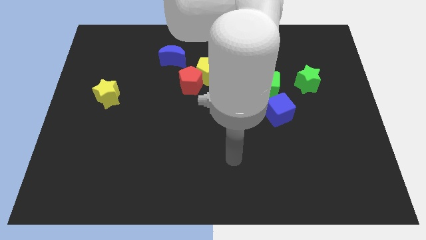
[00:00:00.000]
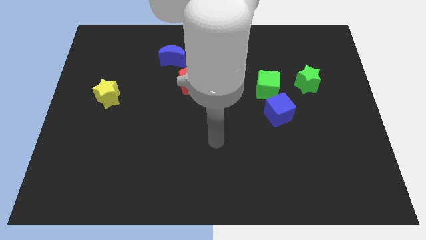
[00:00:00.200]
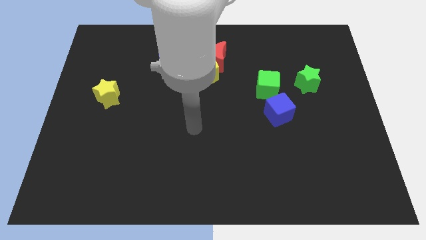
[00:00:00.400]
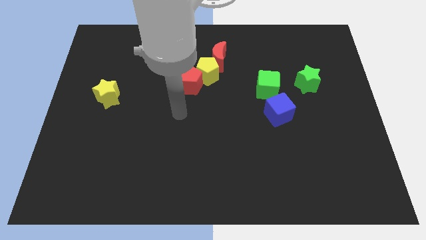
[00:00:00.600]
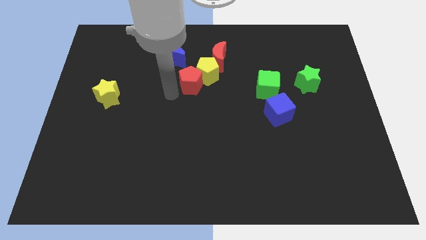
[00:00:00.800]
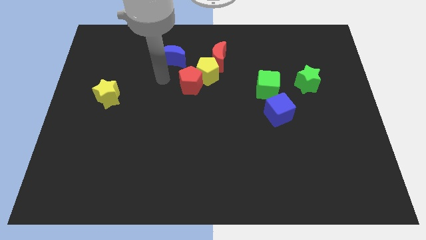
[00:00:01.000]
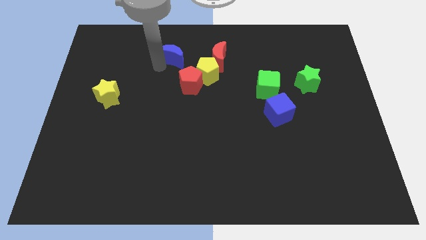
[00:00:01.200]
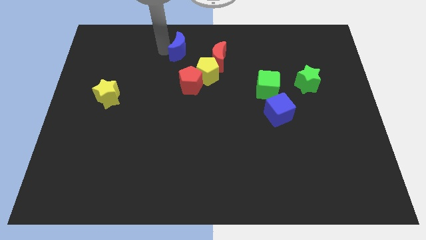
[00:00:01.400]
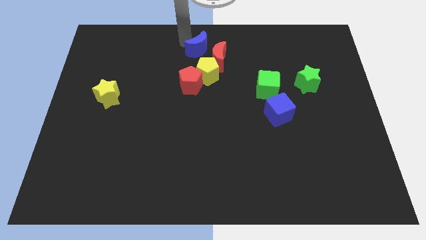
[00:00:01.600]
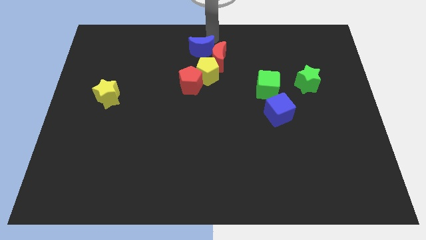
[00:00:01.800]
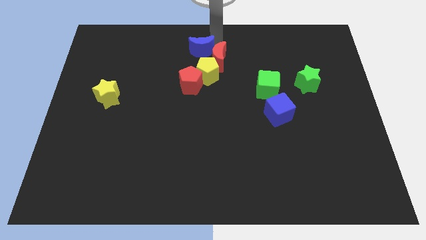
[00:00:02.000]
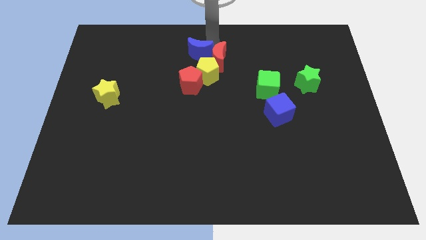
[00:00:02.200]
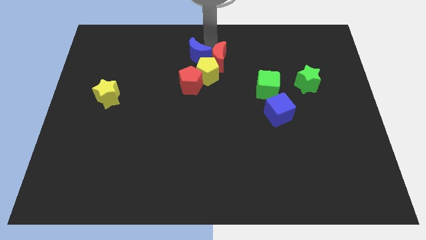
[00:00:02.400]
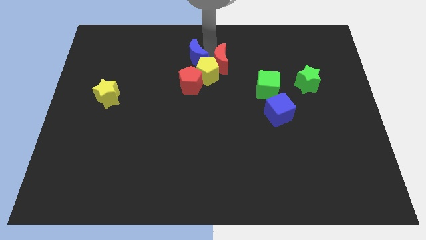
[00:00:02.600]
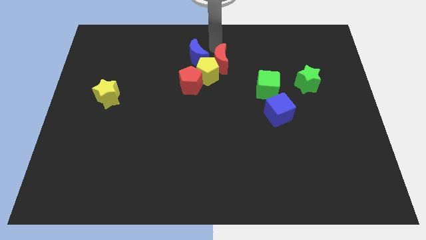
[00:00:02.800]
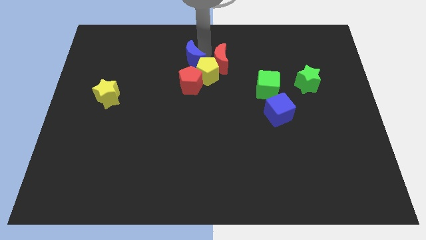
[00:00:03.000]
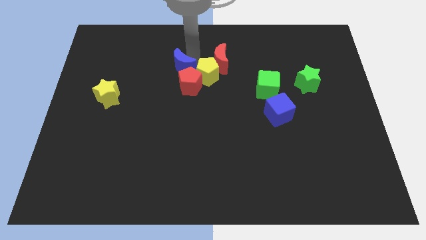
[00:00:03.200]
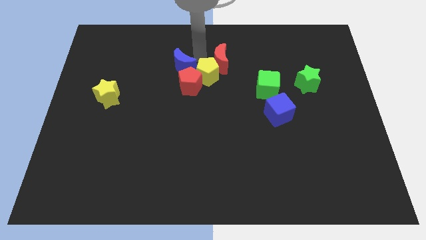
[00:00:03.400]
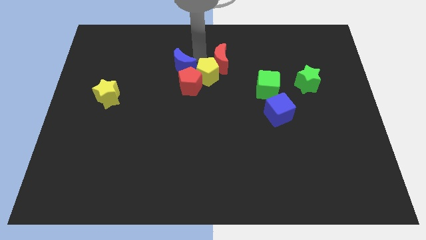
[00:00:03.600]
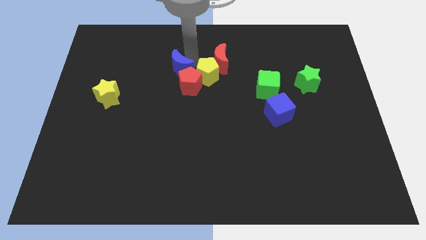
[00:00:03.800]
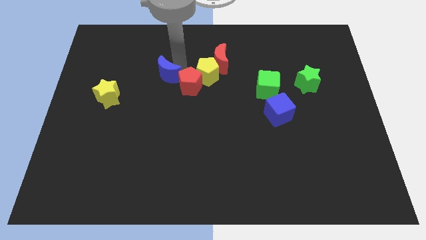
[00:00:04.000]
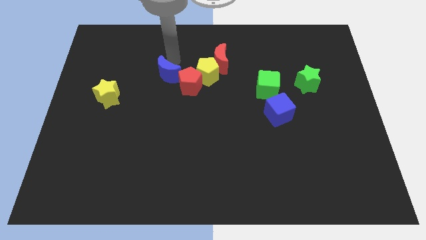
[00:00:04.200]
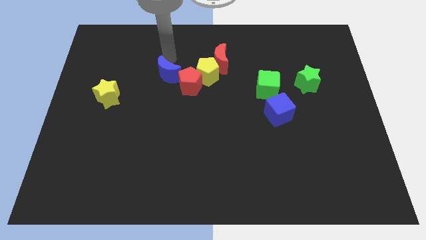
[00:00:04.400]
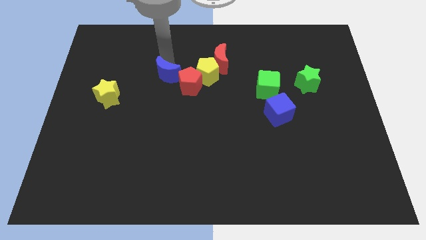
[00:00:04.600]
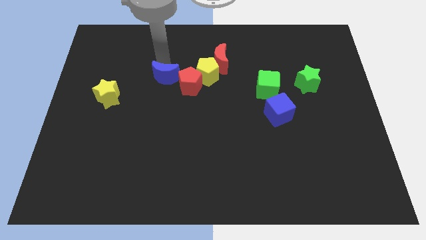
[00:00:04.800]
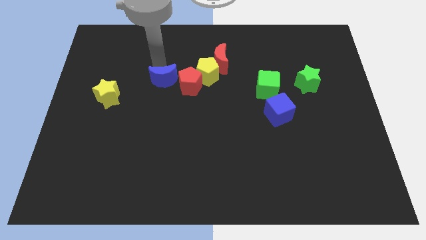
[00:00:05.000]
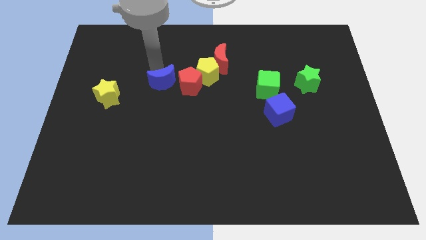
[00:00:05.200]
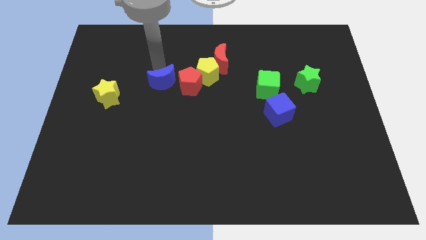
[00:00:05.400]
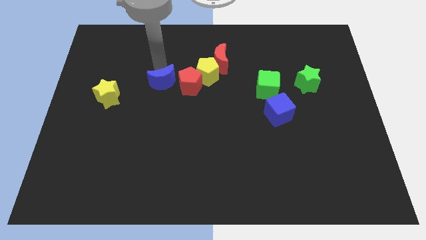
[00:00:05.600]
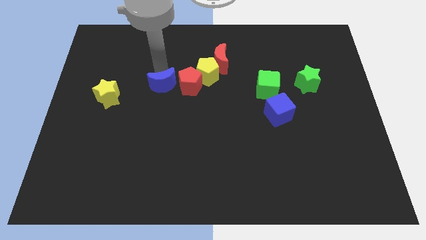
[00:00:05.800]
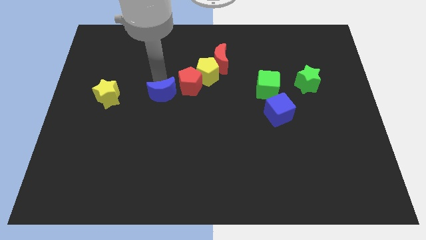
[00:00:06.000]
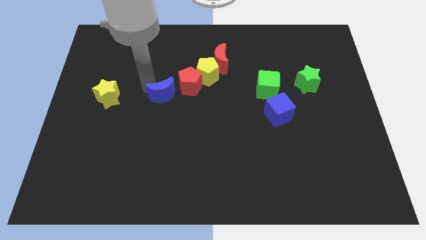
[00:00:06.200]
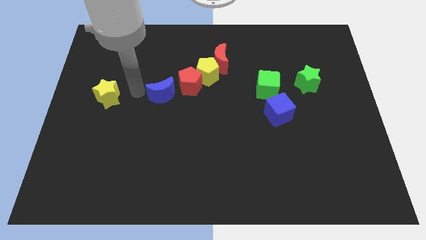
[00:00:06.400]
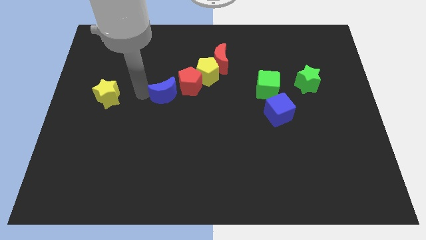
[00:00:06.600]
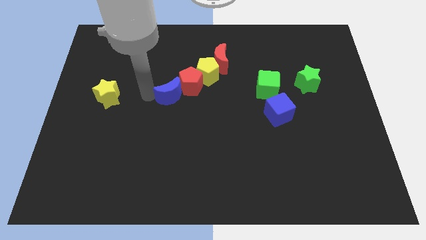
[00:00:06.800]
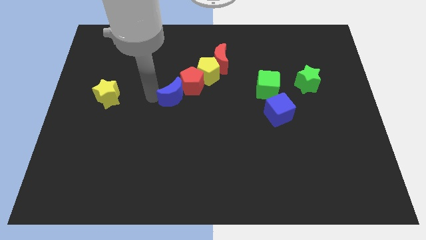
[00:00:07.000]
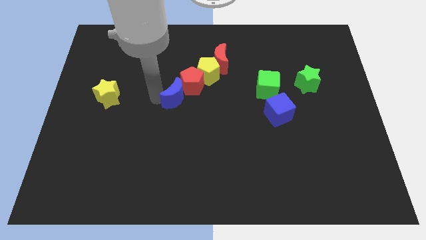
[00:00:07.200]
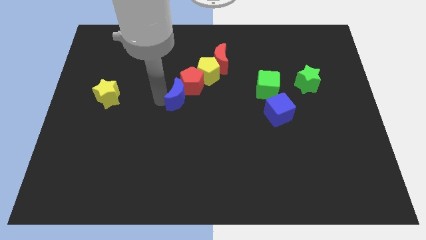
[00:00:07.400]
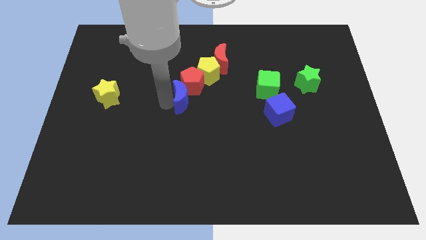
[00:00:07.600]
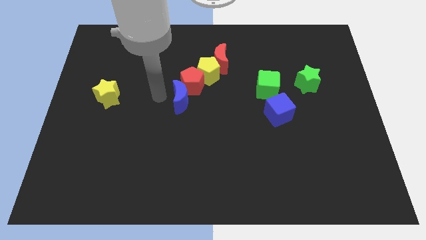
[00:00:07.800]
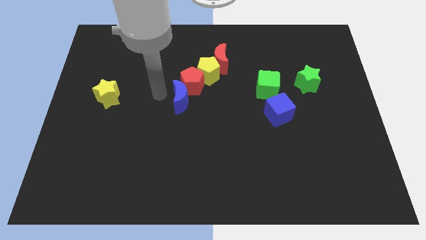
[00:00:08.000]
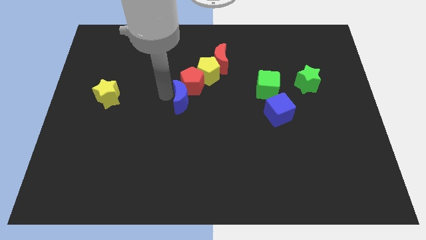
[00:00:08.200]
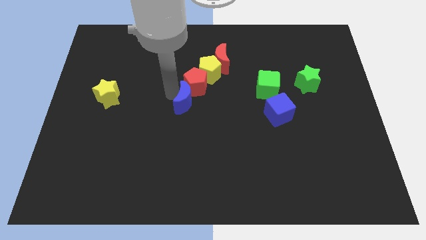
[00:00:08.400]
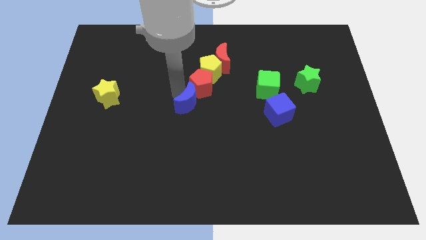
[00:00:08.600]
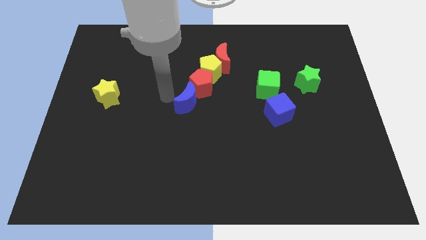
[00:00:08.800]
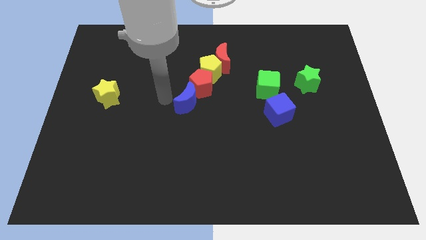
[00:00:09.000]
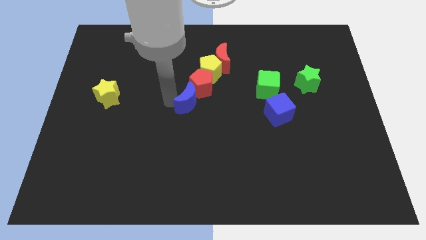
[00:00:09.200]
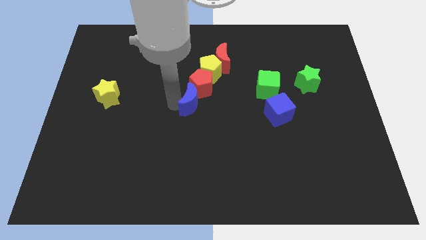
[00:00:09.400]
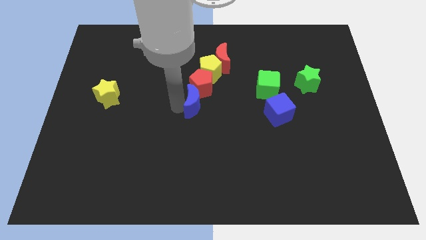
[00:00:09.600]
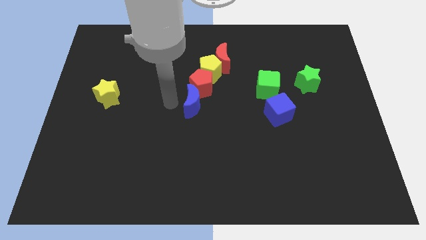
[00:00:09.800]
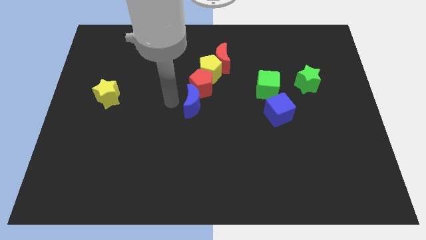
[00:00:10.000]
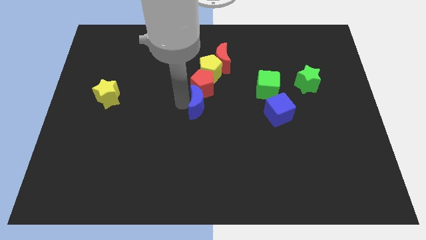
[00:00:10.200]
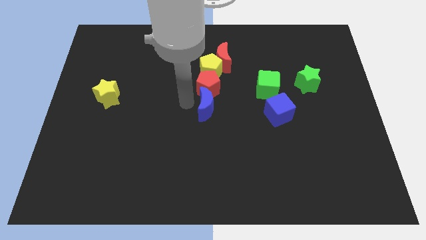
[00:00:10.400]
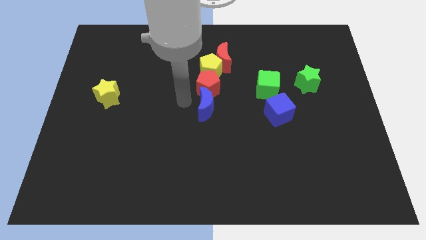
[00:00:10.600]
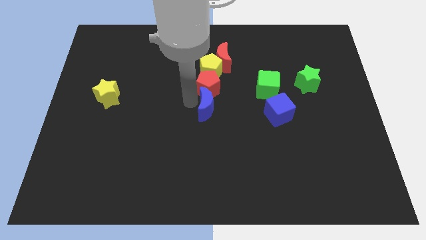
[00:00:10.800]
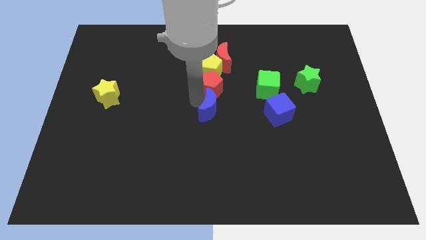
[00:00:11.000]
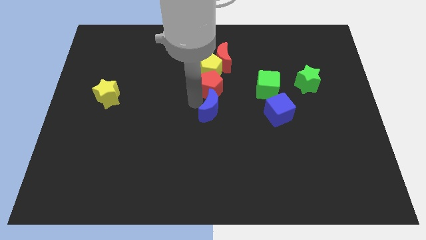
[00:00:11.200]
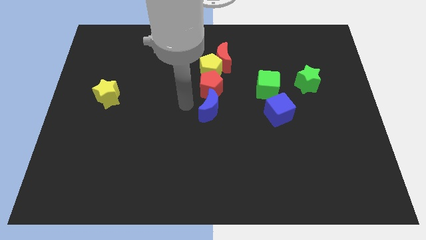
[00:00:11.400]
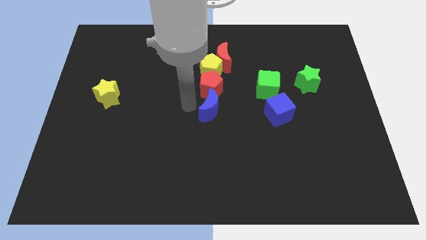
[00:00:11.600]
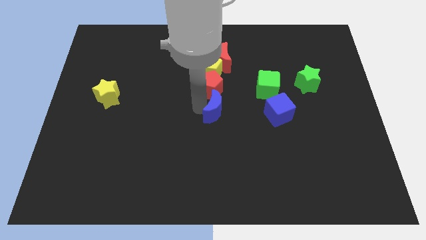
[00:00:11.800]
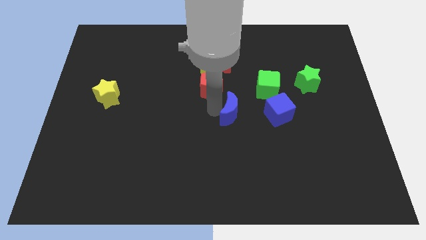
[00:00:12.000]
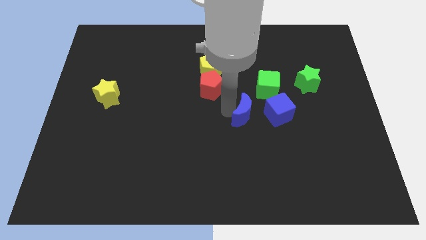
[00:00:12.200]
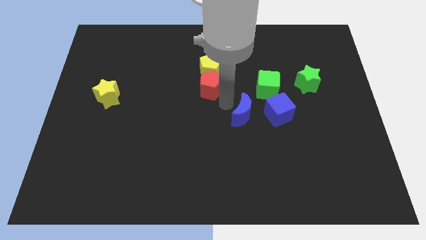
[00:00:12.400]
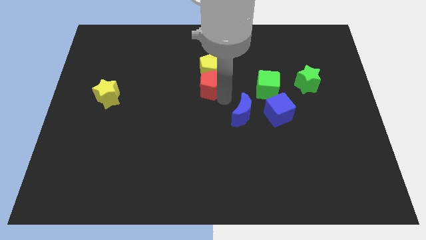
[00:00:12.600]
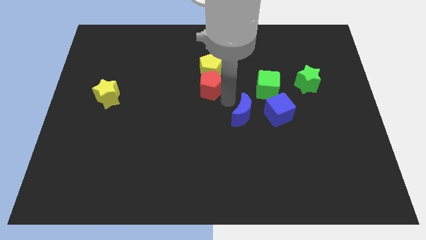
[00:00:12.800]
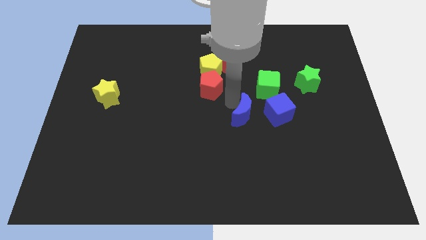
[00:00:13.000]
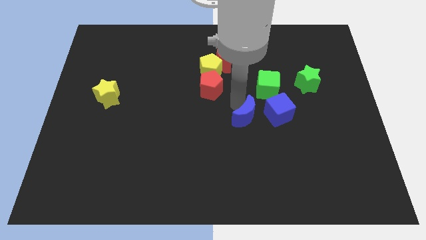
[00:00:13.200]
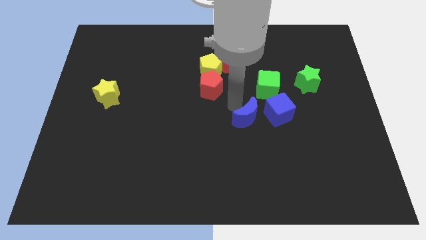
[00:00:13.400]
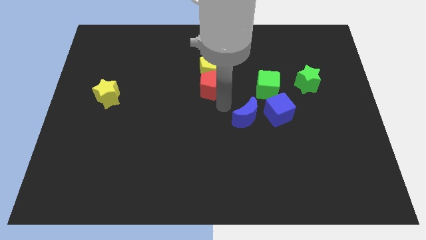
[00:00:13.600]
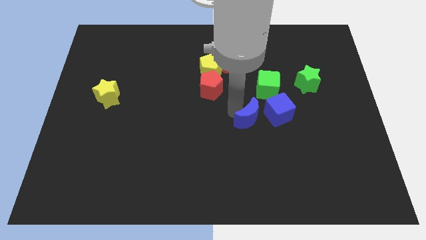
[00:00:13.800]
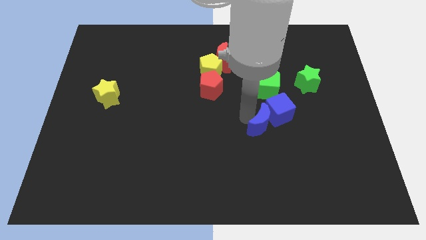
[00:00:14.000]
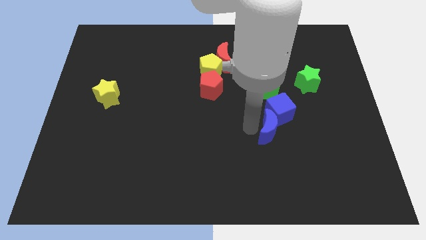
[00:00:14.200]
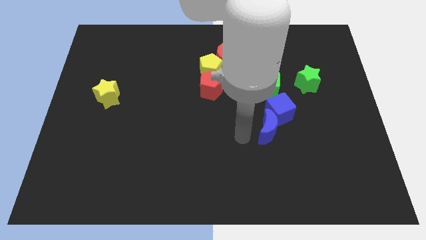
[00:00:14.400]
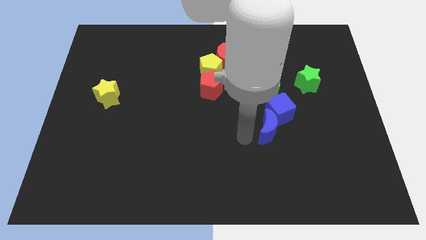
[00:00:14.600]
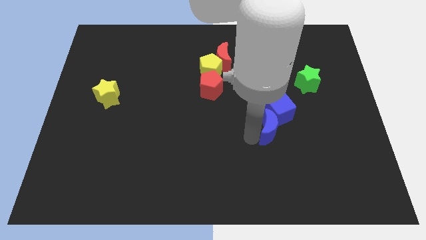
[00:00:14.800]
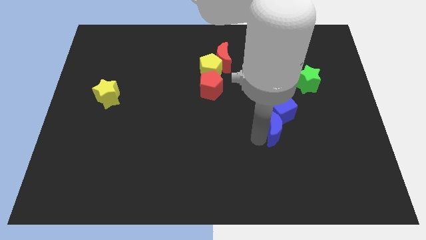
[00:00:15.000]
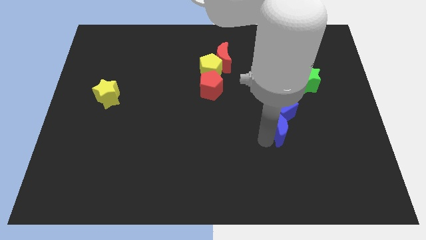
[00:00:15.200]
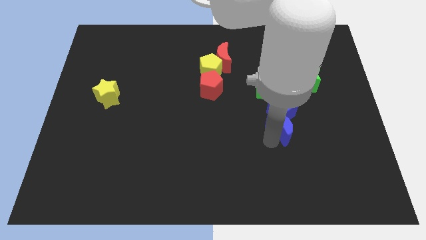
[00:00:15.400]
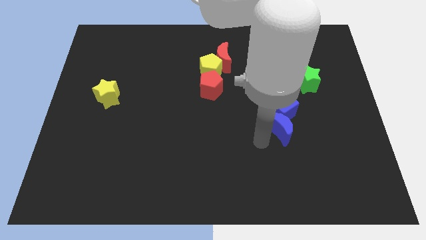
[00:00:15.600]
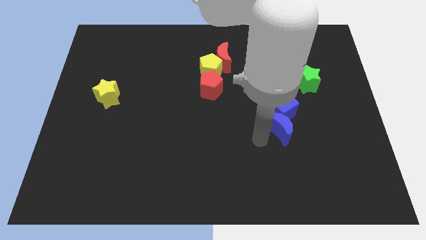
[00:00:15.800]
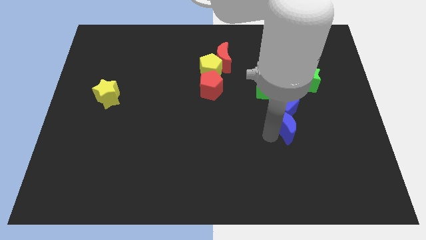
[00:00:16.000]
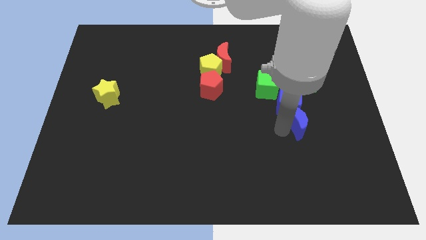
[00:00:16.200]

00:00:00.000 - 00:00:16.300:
put the blue moon to the bottom side of the green star
